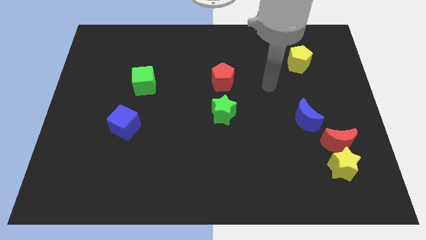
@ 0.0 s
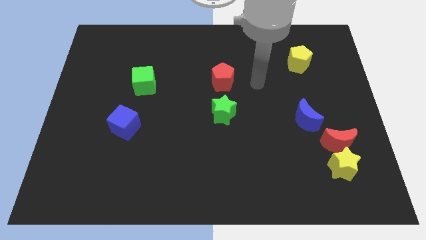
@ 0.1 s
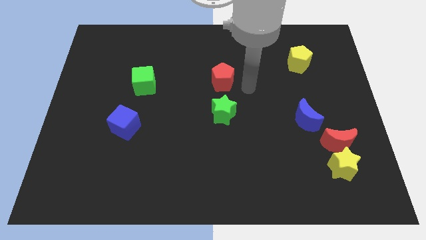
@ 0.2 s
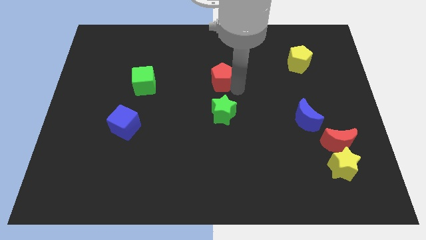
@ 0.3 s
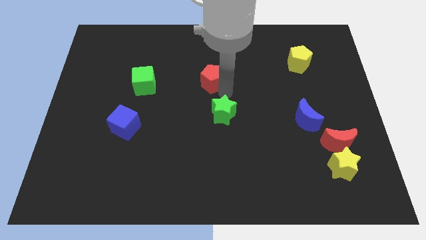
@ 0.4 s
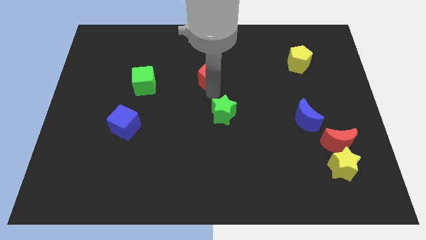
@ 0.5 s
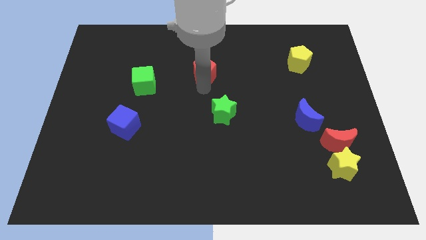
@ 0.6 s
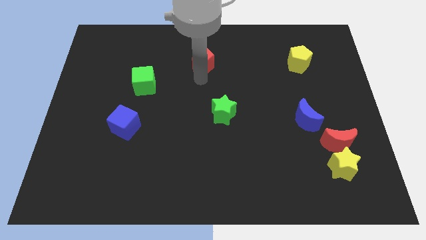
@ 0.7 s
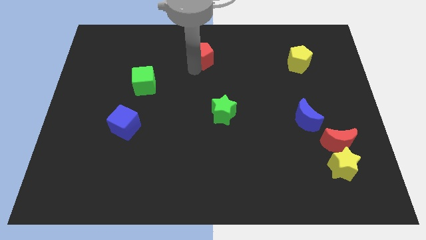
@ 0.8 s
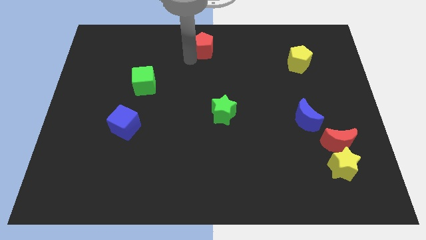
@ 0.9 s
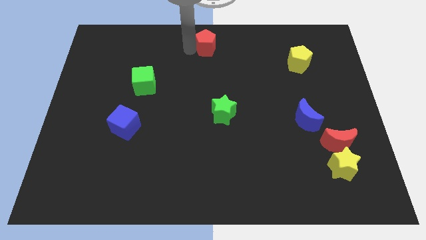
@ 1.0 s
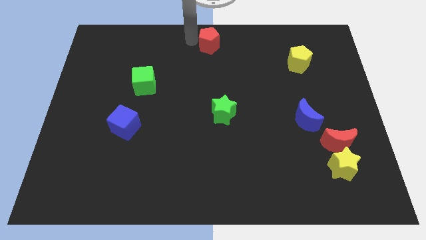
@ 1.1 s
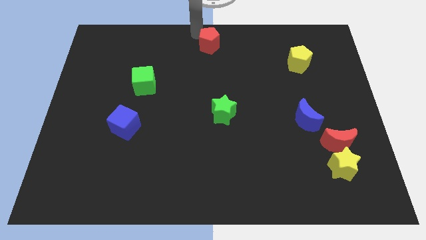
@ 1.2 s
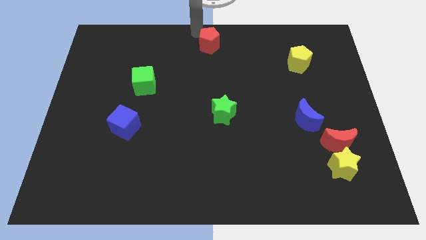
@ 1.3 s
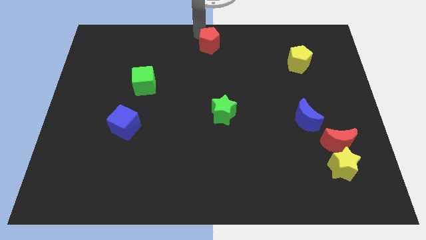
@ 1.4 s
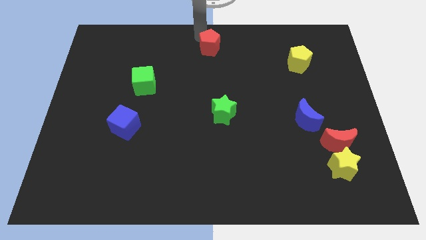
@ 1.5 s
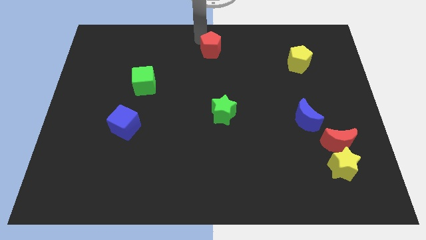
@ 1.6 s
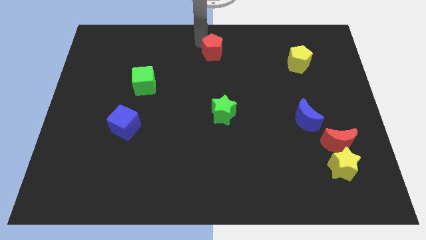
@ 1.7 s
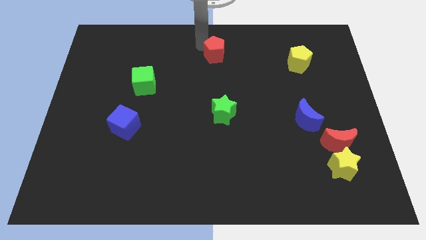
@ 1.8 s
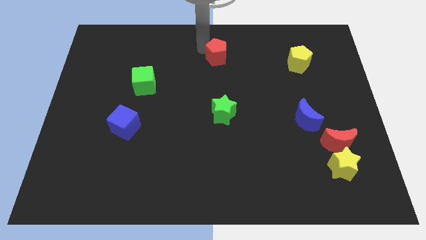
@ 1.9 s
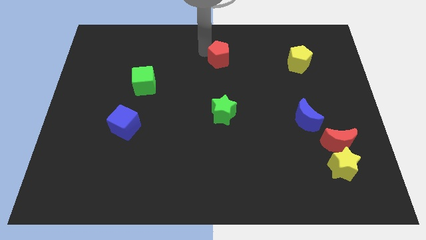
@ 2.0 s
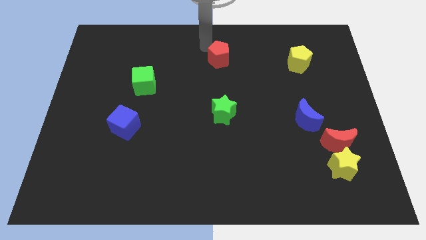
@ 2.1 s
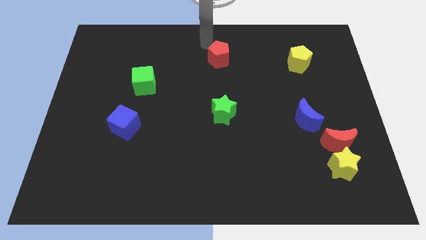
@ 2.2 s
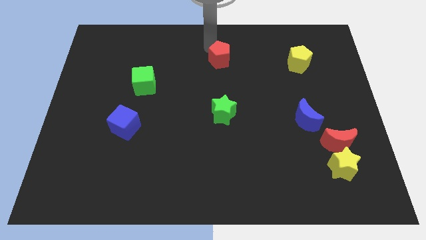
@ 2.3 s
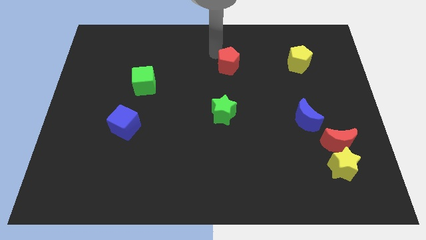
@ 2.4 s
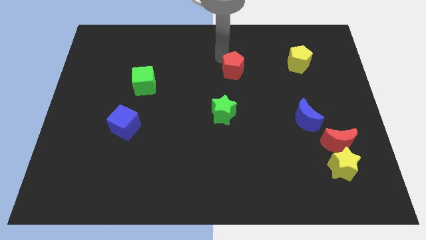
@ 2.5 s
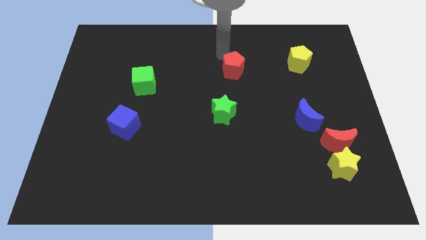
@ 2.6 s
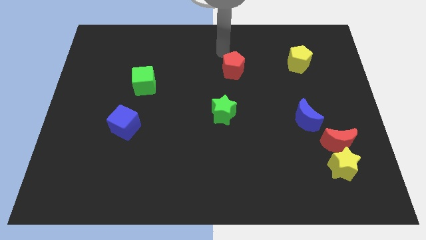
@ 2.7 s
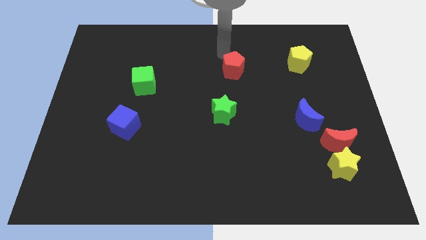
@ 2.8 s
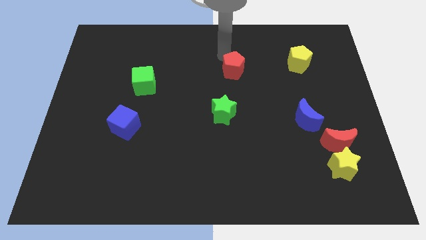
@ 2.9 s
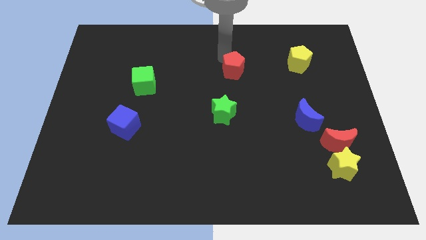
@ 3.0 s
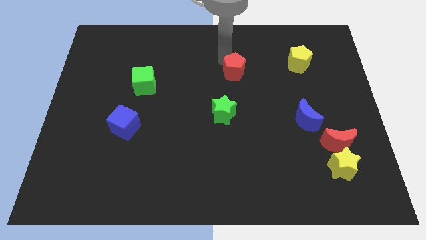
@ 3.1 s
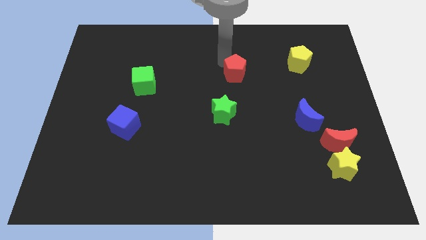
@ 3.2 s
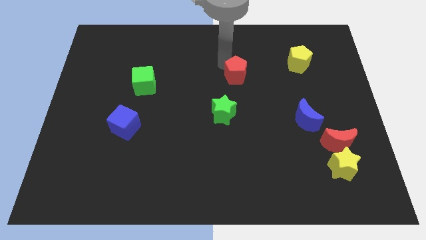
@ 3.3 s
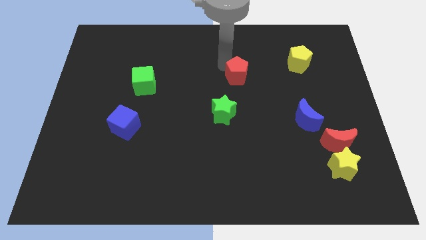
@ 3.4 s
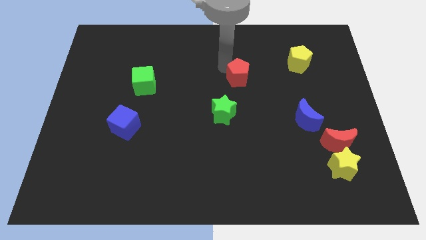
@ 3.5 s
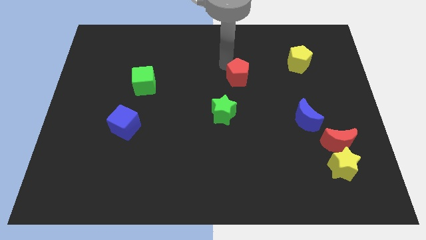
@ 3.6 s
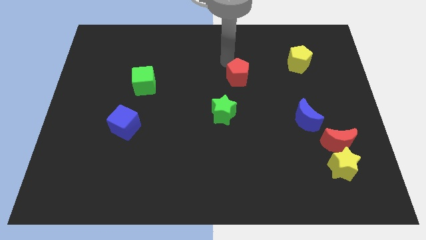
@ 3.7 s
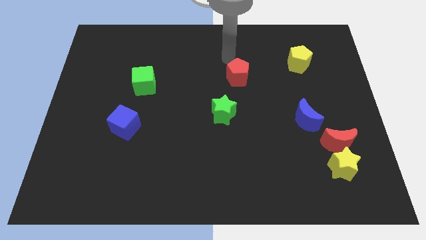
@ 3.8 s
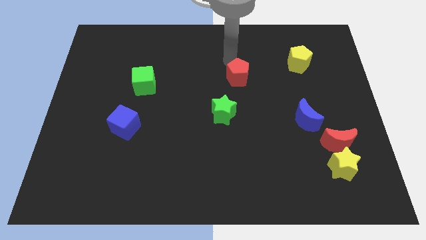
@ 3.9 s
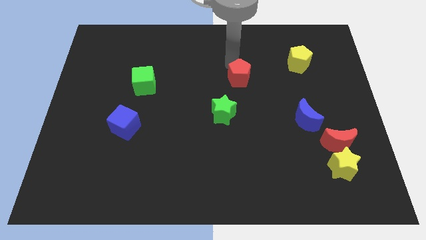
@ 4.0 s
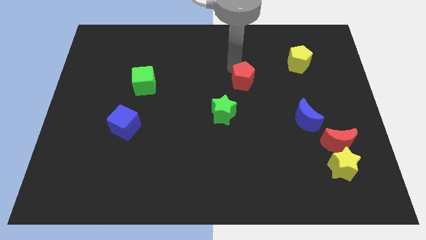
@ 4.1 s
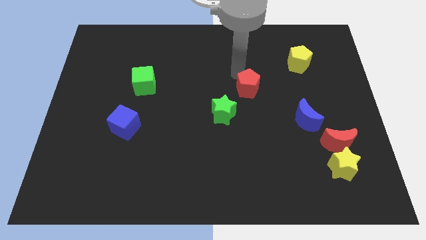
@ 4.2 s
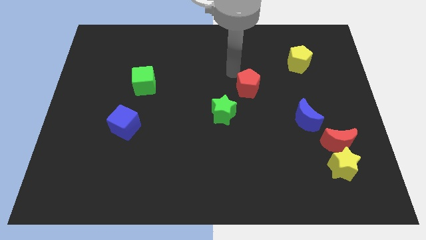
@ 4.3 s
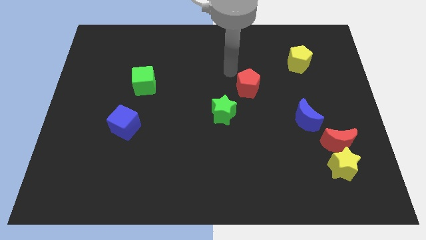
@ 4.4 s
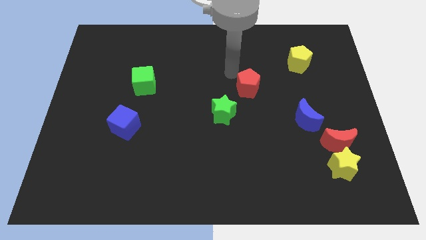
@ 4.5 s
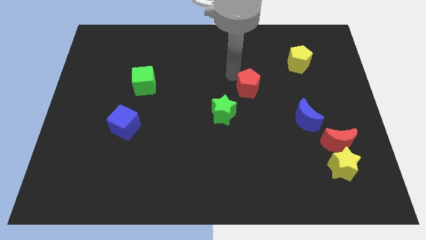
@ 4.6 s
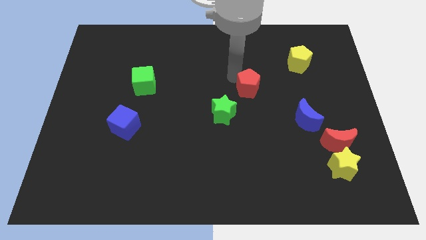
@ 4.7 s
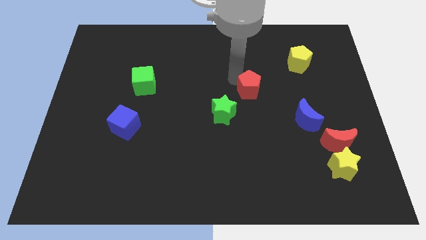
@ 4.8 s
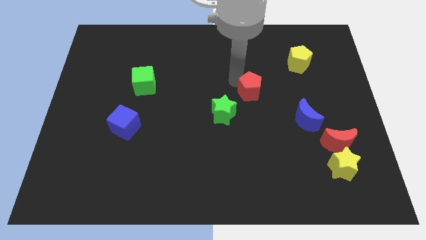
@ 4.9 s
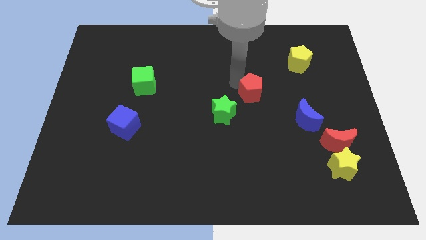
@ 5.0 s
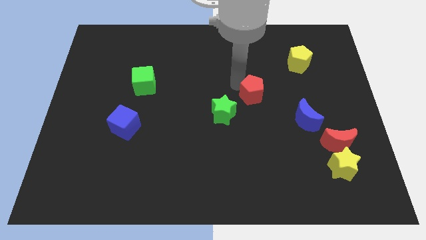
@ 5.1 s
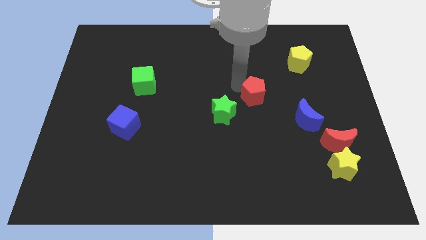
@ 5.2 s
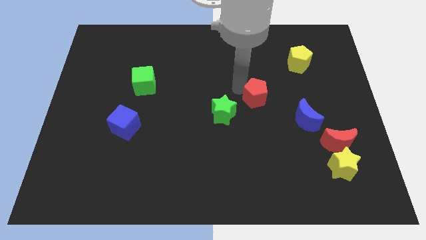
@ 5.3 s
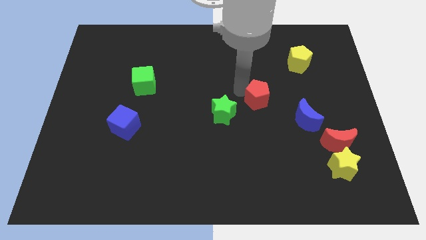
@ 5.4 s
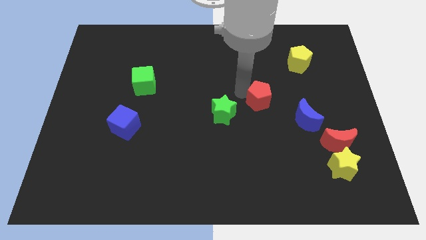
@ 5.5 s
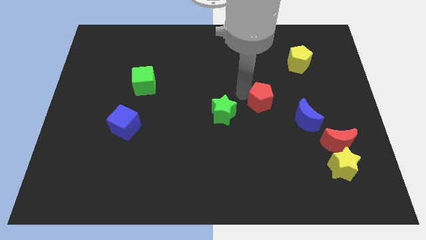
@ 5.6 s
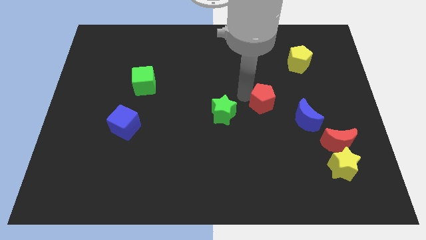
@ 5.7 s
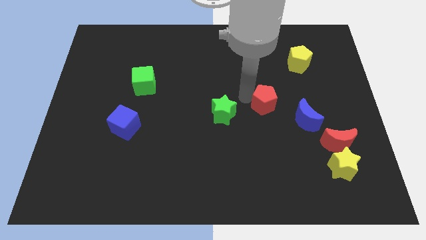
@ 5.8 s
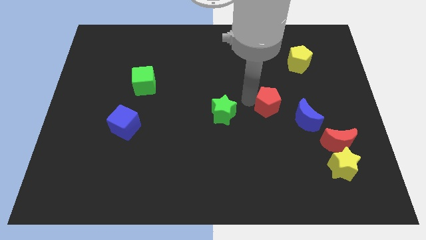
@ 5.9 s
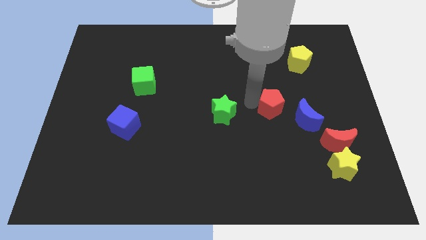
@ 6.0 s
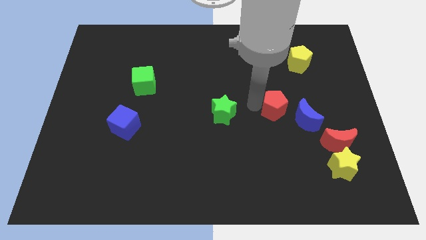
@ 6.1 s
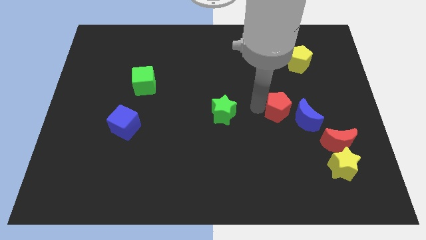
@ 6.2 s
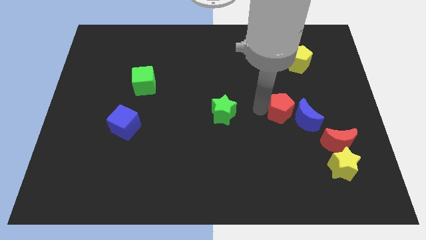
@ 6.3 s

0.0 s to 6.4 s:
move the red pentagon towards the blue moon

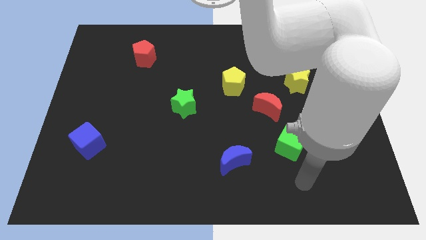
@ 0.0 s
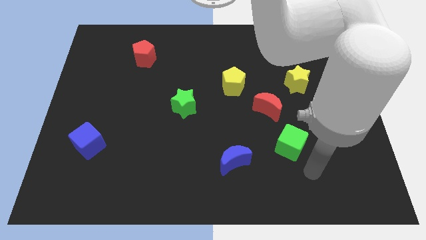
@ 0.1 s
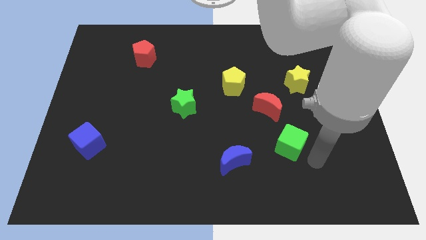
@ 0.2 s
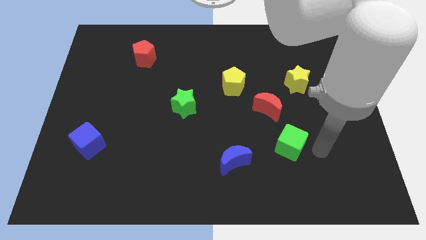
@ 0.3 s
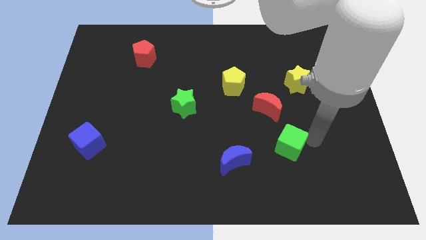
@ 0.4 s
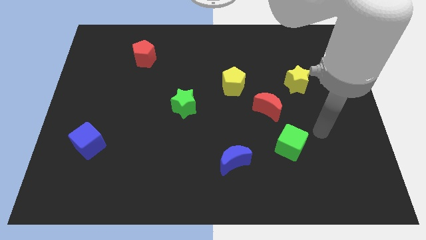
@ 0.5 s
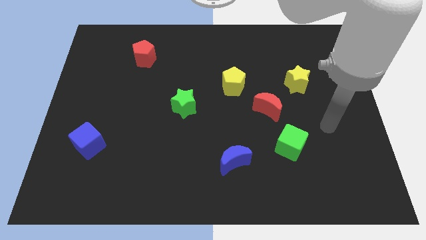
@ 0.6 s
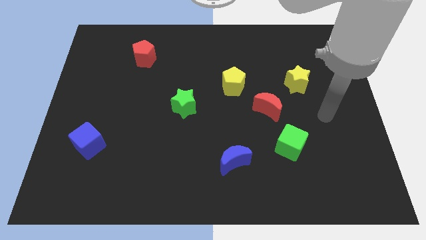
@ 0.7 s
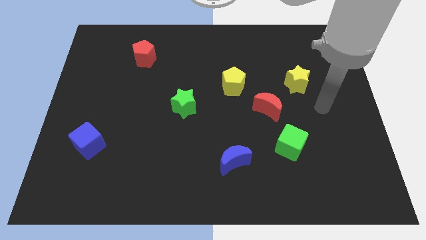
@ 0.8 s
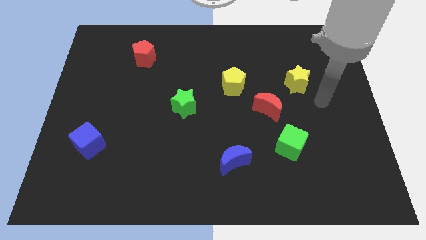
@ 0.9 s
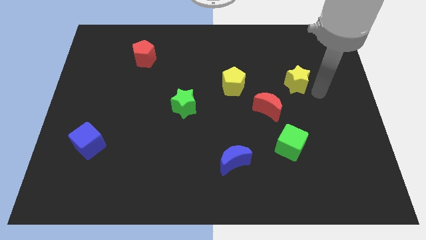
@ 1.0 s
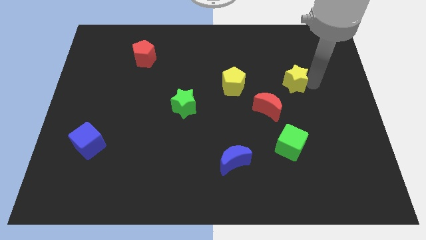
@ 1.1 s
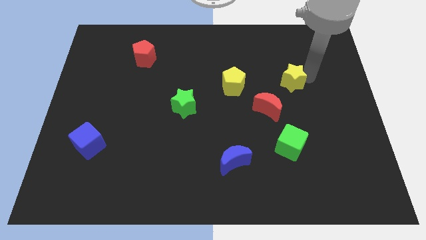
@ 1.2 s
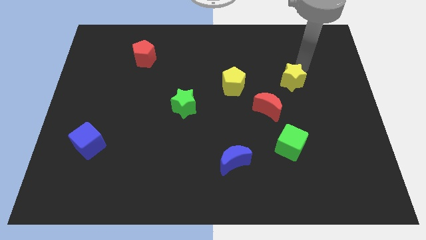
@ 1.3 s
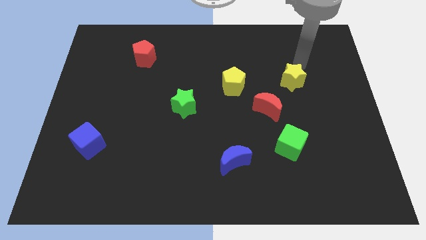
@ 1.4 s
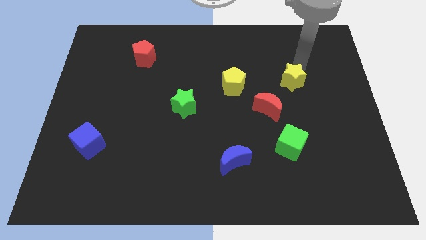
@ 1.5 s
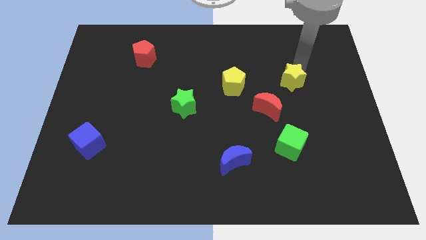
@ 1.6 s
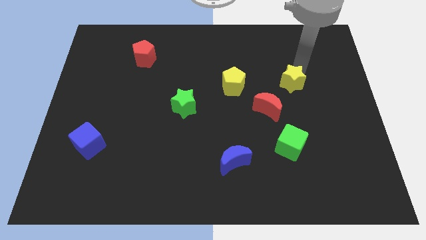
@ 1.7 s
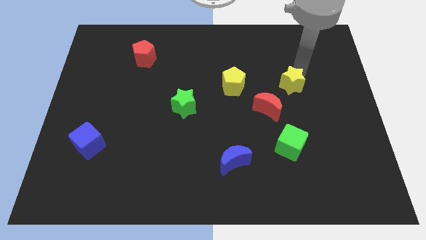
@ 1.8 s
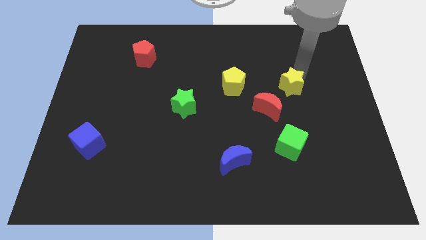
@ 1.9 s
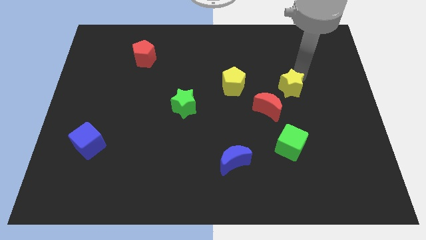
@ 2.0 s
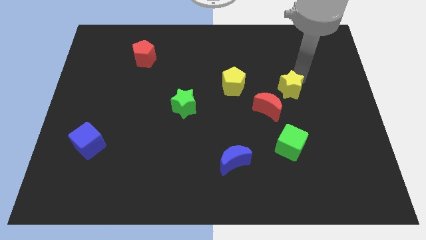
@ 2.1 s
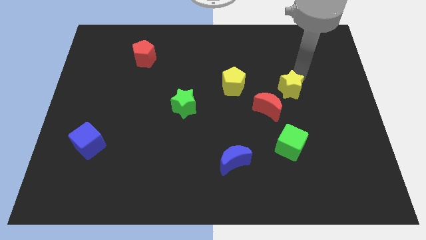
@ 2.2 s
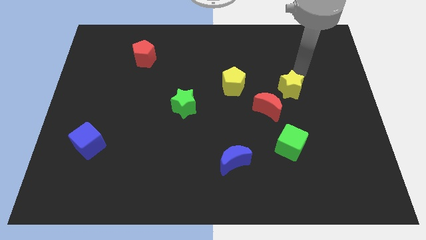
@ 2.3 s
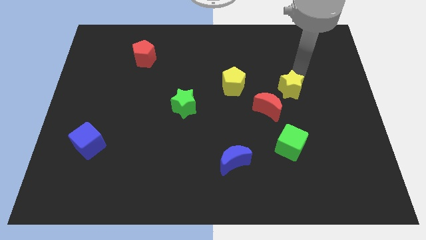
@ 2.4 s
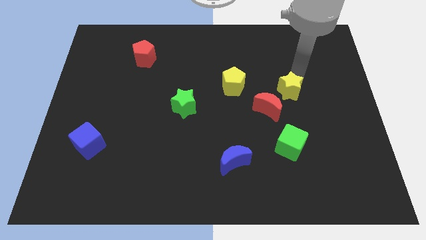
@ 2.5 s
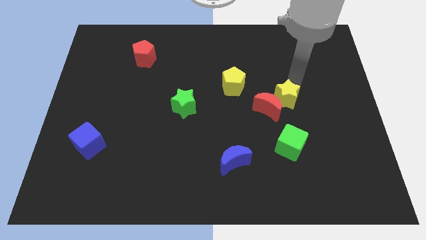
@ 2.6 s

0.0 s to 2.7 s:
push the yellow star next to the red moon
